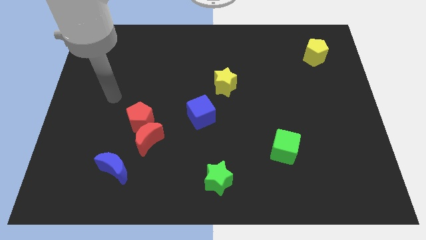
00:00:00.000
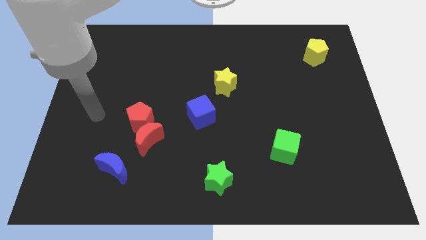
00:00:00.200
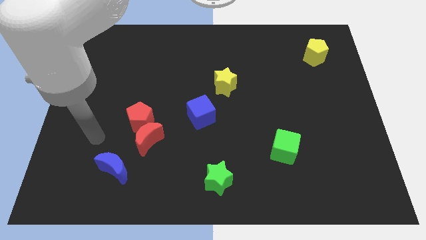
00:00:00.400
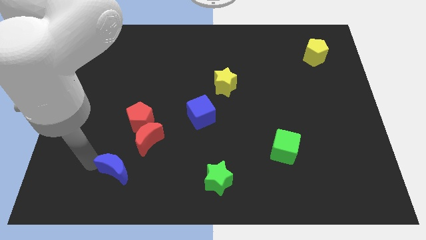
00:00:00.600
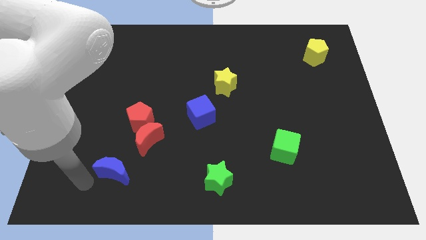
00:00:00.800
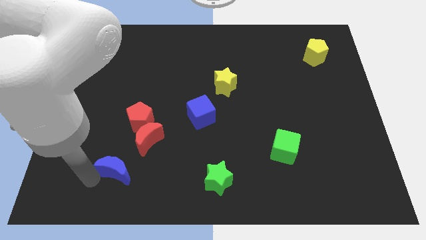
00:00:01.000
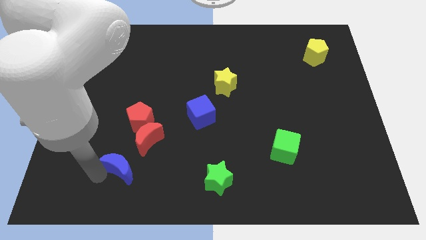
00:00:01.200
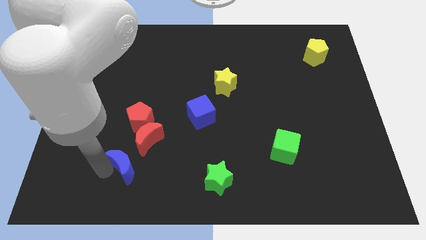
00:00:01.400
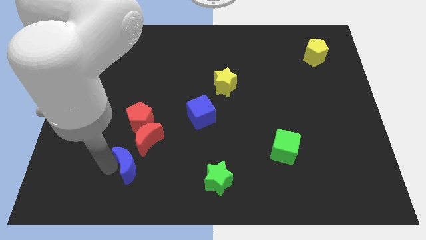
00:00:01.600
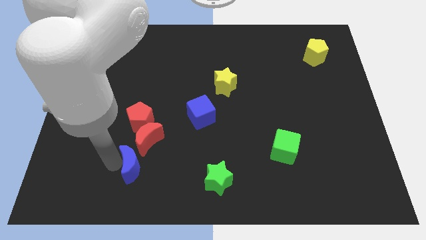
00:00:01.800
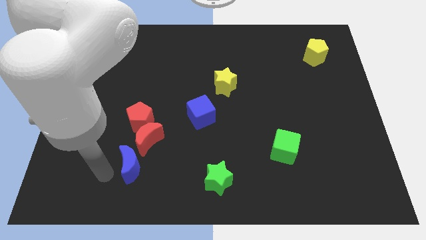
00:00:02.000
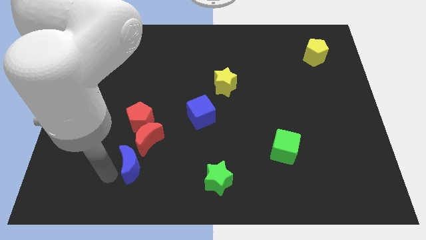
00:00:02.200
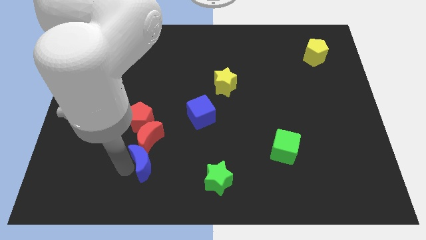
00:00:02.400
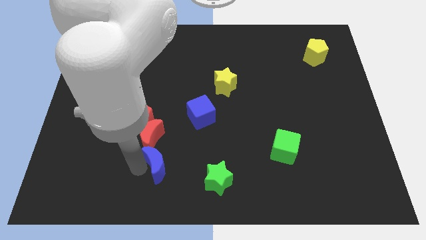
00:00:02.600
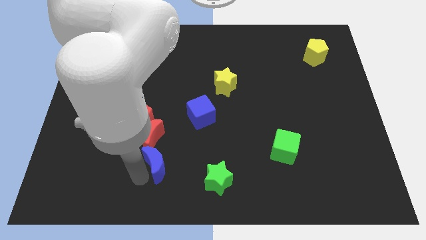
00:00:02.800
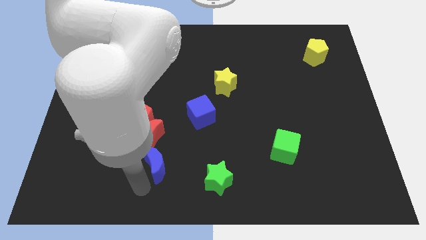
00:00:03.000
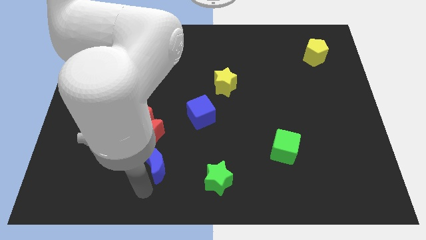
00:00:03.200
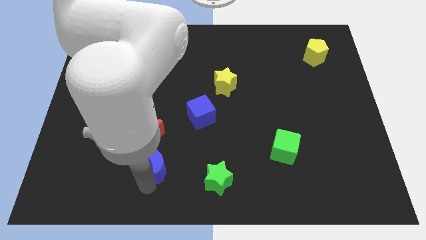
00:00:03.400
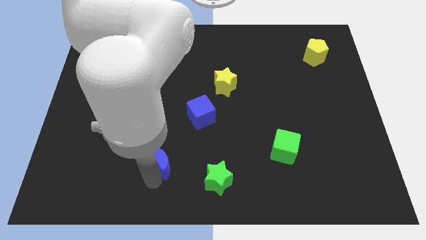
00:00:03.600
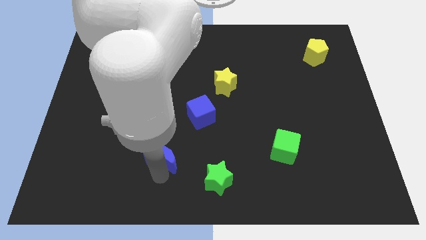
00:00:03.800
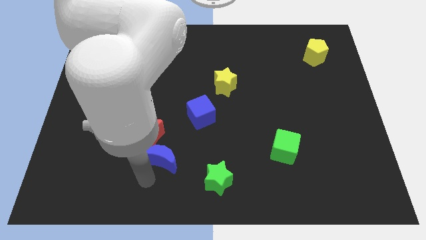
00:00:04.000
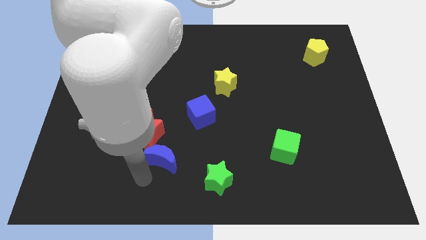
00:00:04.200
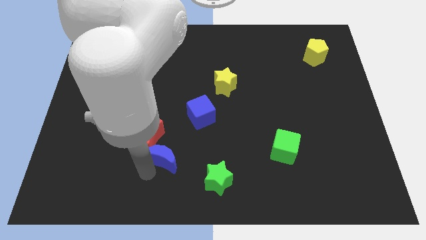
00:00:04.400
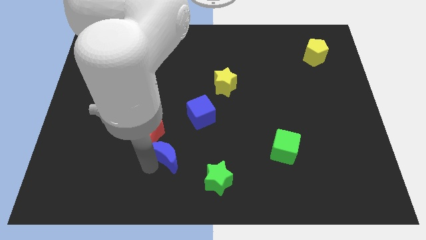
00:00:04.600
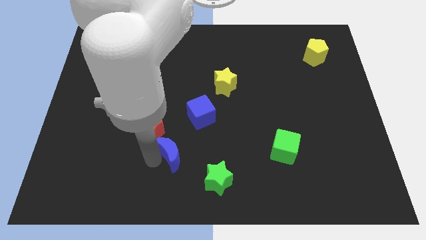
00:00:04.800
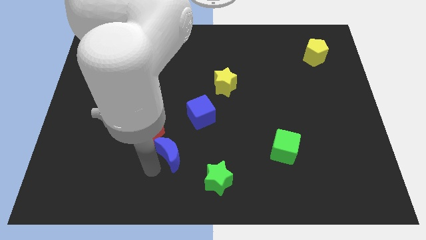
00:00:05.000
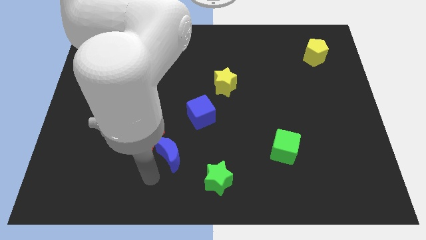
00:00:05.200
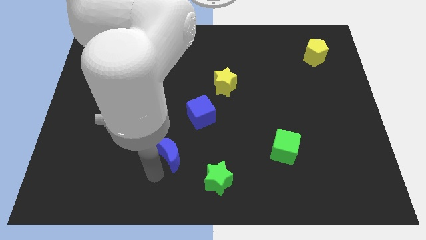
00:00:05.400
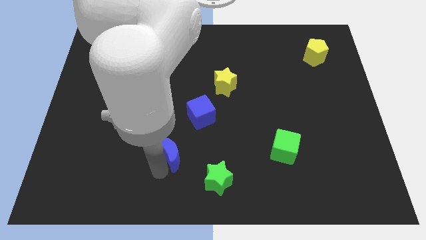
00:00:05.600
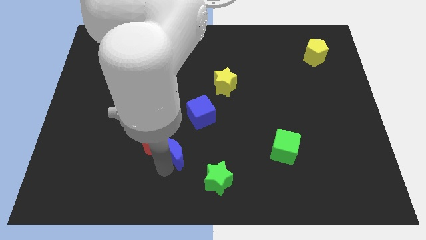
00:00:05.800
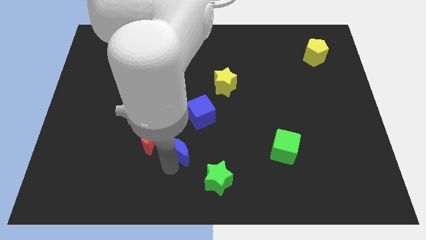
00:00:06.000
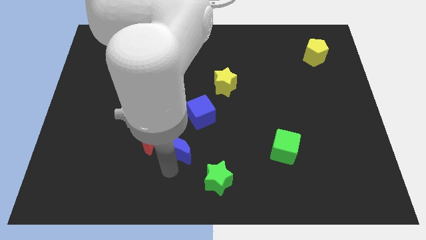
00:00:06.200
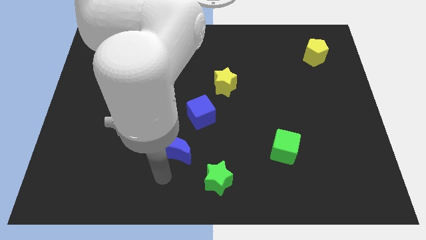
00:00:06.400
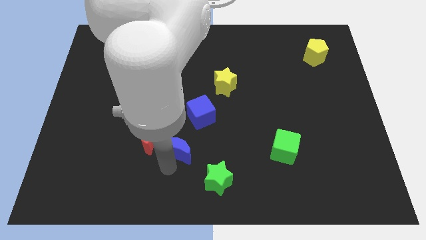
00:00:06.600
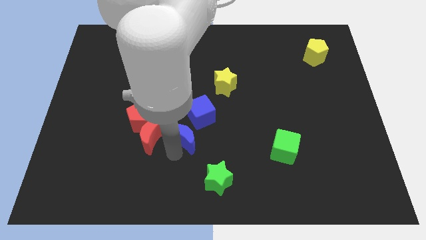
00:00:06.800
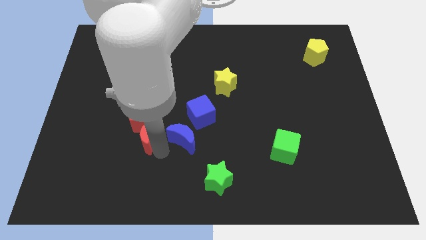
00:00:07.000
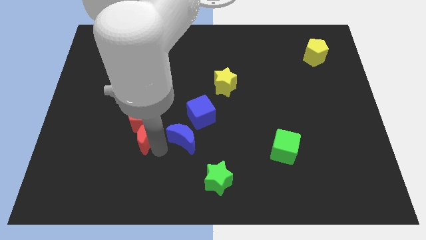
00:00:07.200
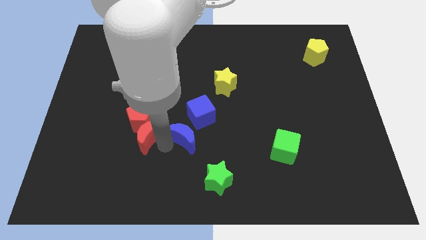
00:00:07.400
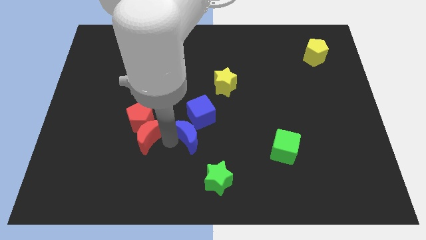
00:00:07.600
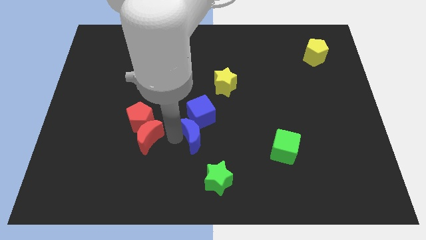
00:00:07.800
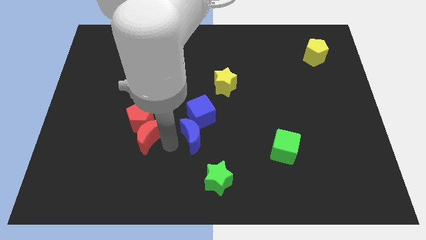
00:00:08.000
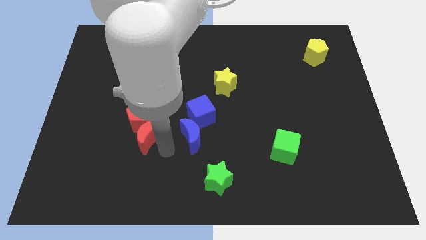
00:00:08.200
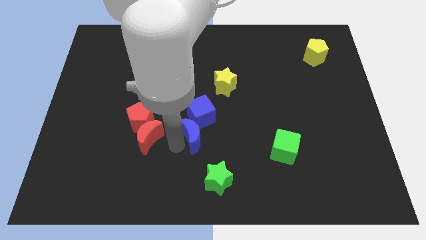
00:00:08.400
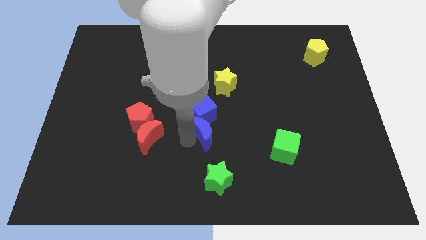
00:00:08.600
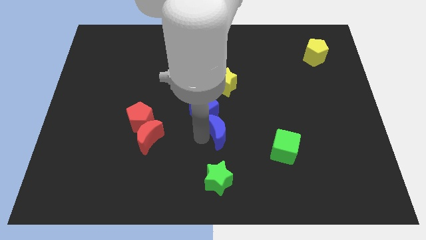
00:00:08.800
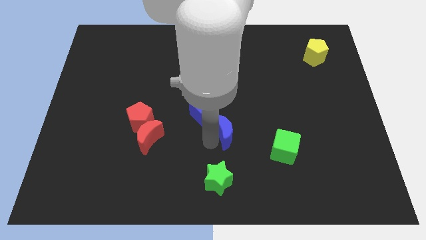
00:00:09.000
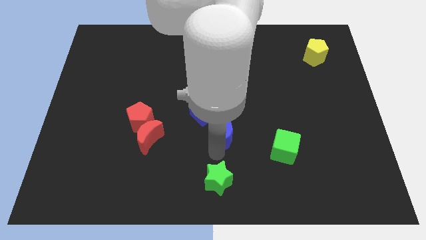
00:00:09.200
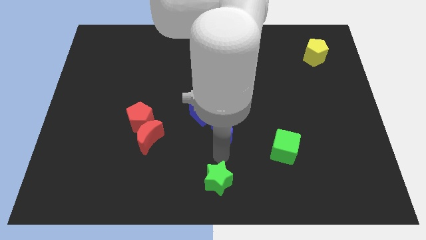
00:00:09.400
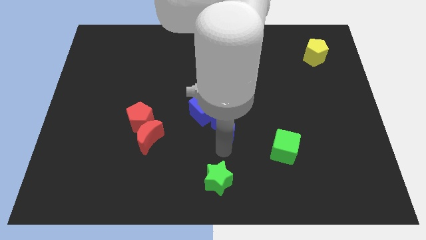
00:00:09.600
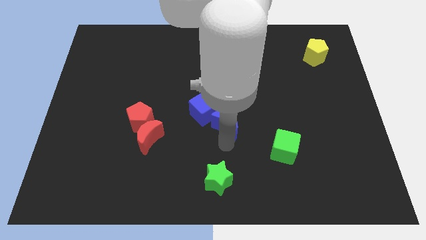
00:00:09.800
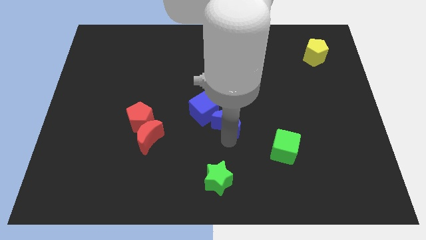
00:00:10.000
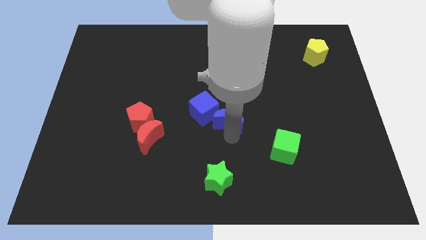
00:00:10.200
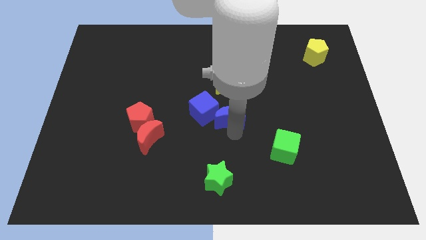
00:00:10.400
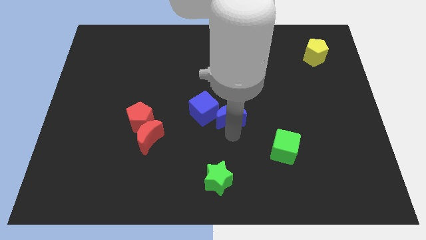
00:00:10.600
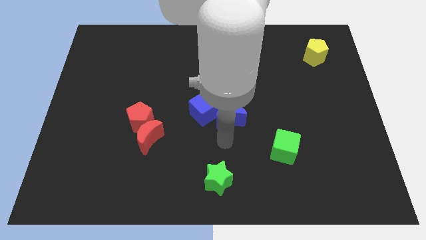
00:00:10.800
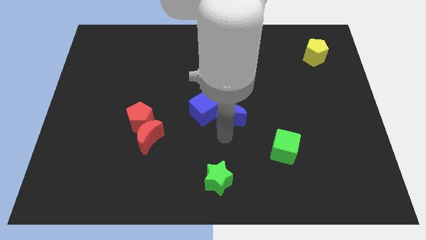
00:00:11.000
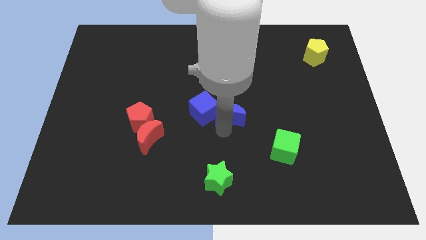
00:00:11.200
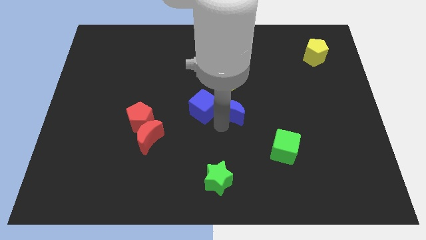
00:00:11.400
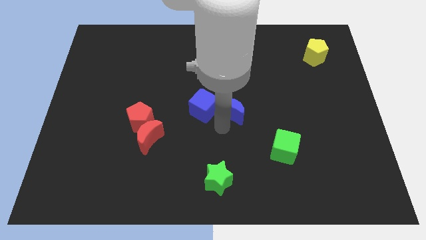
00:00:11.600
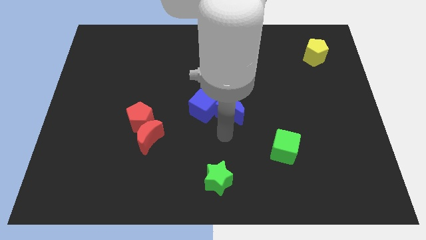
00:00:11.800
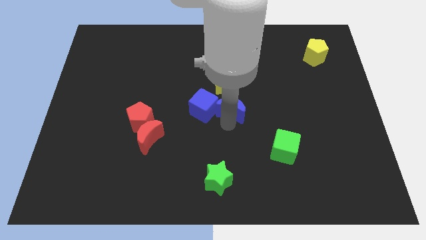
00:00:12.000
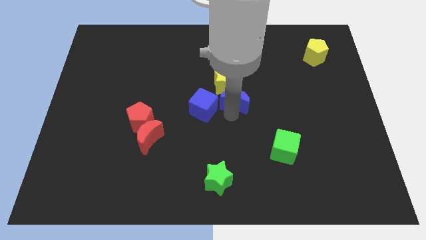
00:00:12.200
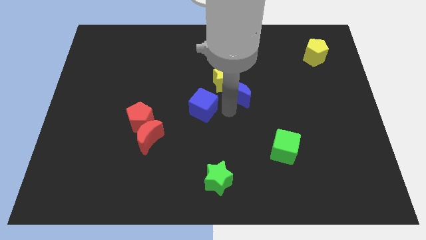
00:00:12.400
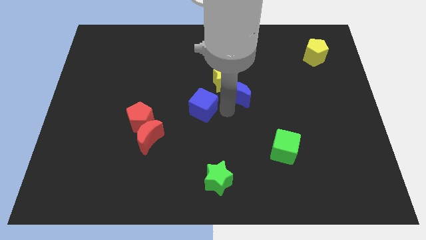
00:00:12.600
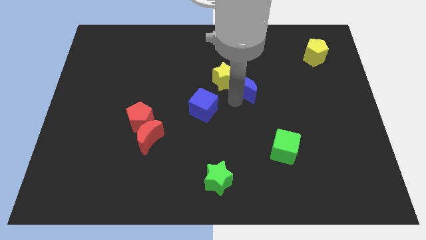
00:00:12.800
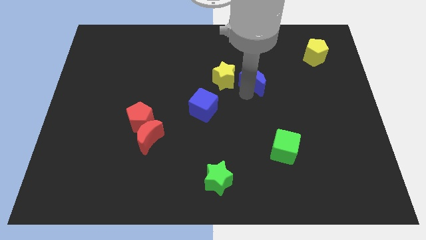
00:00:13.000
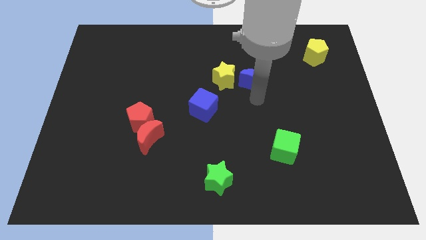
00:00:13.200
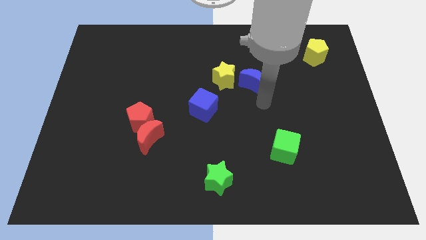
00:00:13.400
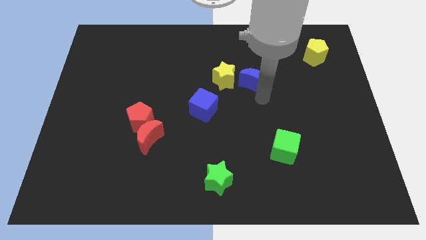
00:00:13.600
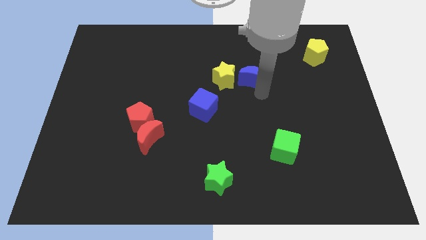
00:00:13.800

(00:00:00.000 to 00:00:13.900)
slide the blue moon diagonally up and to the right of the yellow star
